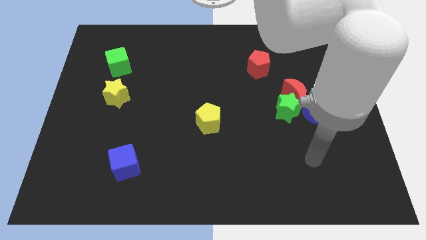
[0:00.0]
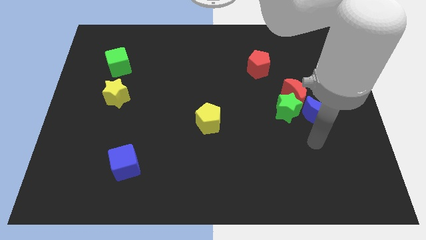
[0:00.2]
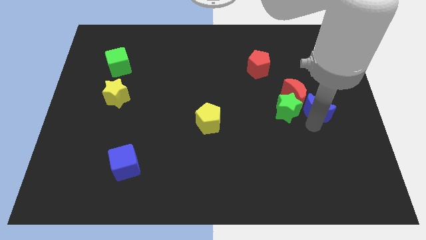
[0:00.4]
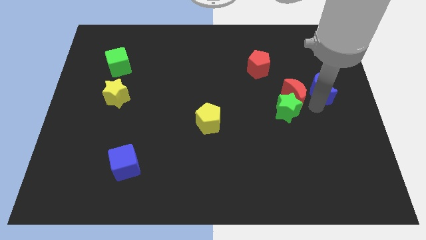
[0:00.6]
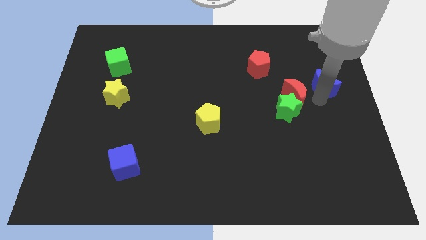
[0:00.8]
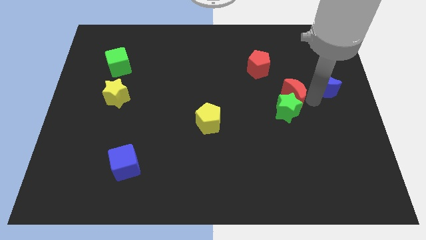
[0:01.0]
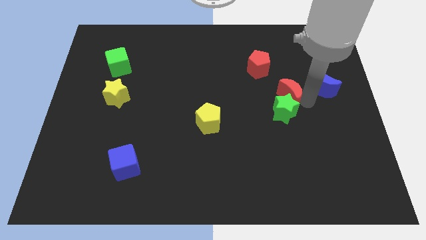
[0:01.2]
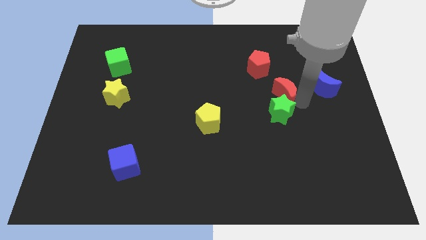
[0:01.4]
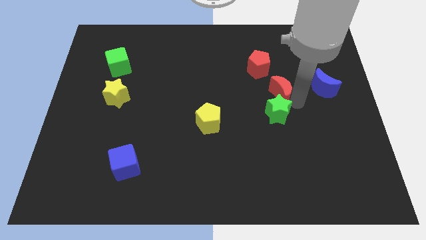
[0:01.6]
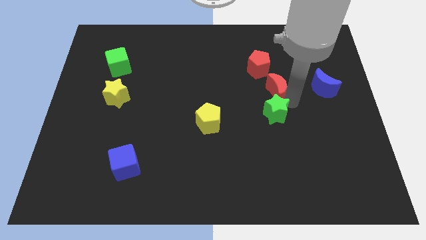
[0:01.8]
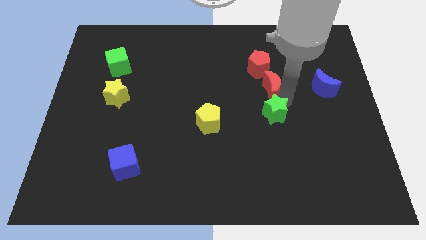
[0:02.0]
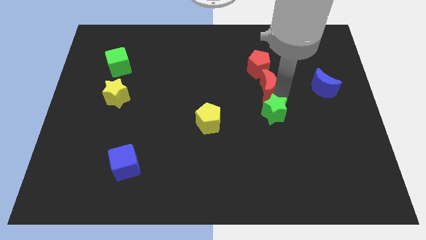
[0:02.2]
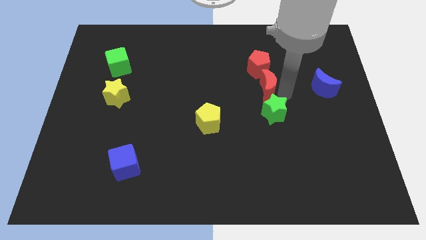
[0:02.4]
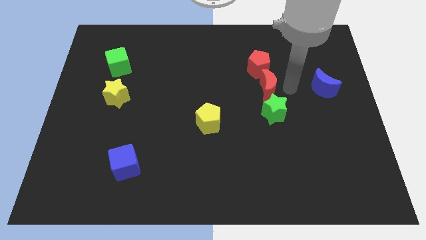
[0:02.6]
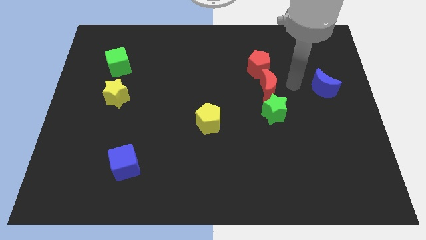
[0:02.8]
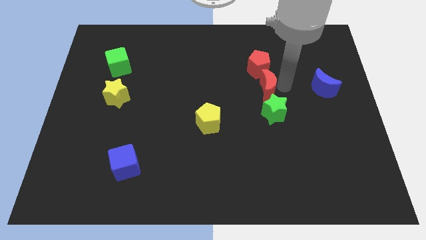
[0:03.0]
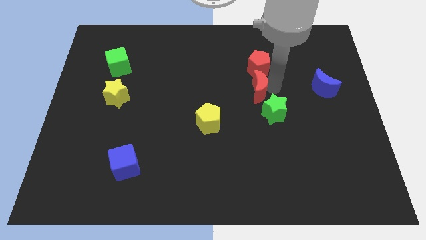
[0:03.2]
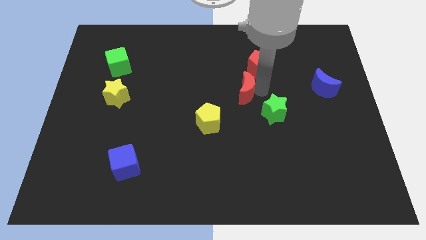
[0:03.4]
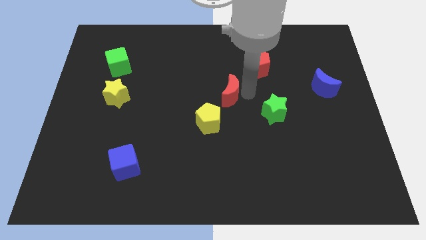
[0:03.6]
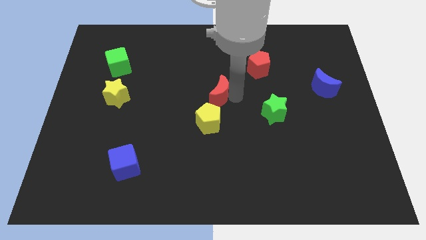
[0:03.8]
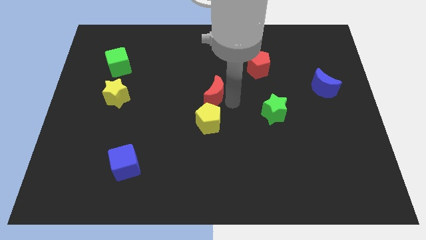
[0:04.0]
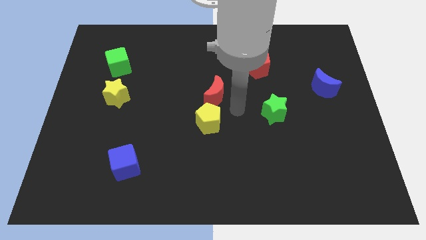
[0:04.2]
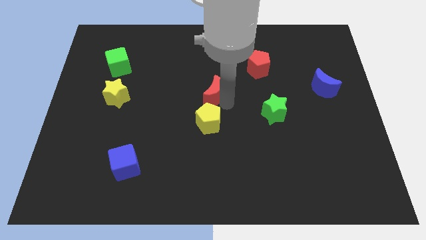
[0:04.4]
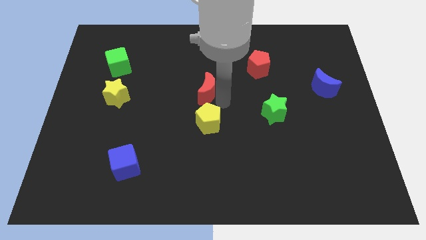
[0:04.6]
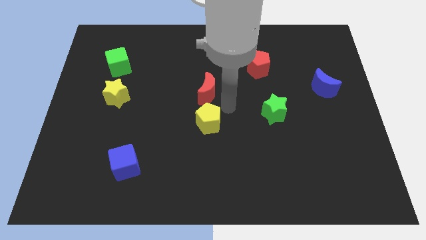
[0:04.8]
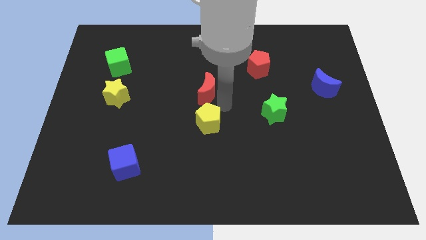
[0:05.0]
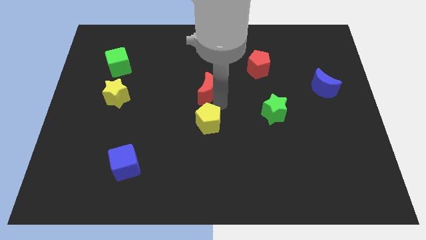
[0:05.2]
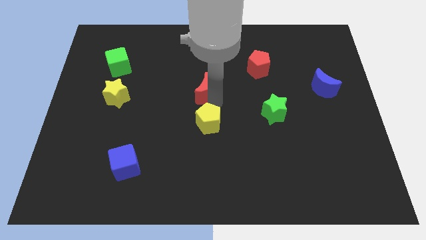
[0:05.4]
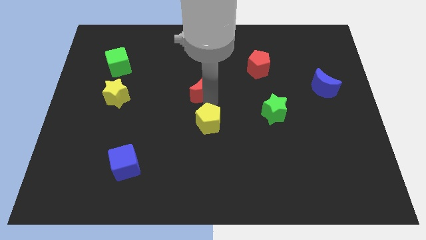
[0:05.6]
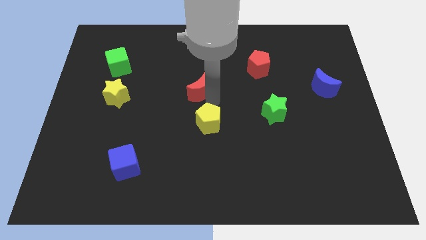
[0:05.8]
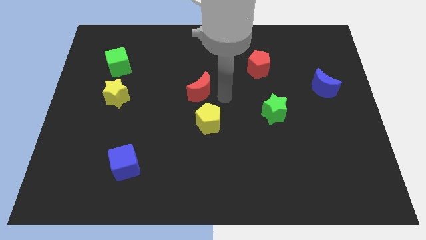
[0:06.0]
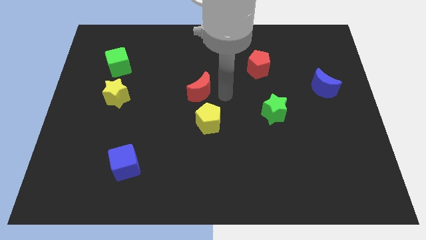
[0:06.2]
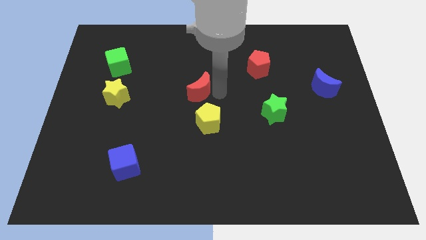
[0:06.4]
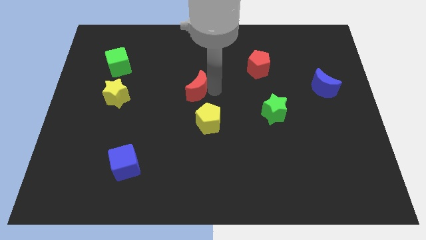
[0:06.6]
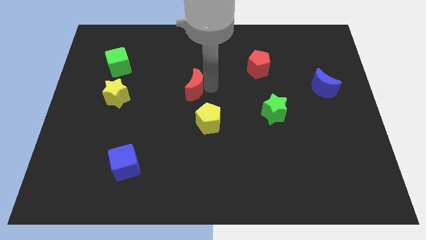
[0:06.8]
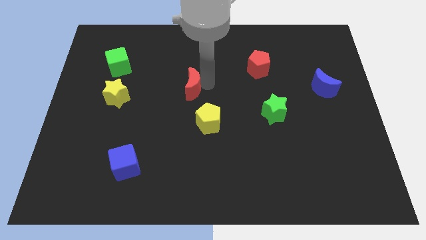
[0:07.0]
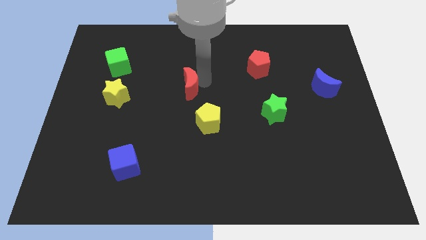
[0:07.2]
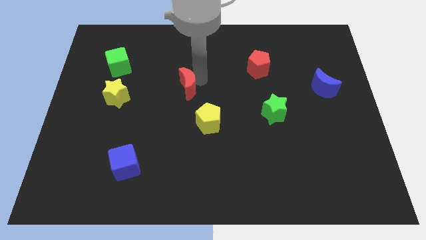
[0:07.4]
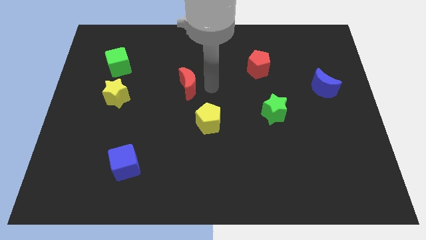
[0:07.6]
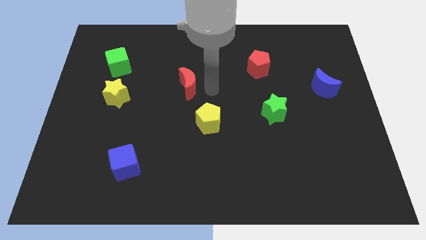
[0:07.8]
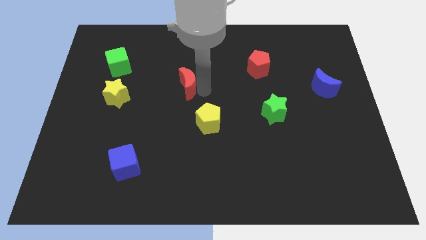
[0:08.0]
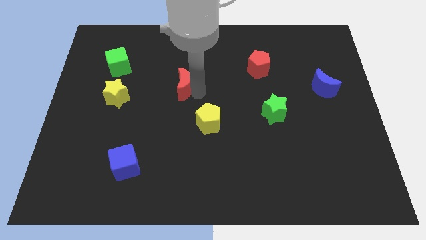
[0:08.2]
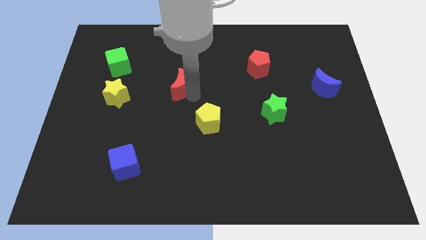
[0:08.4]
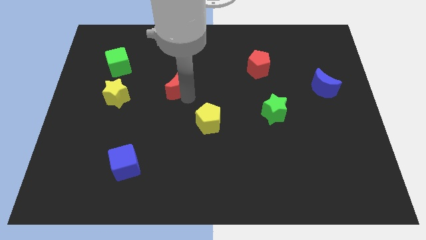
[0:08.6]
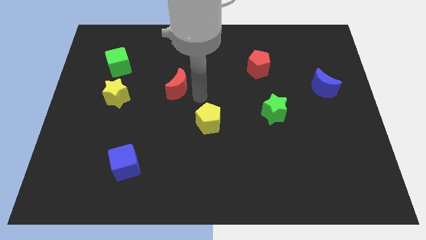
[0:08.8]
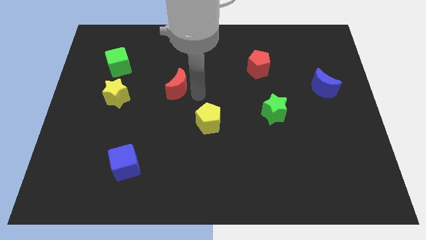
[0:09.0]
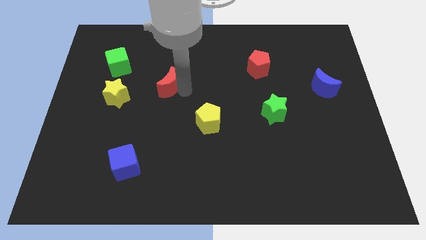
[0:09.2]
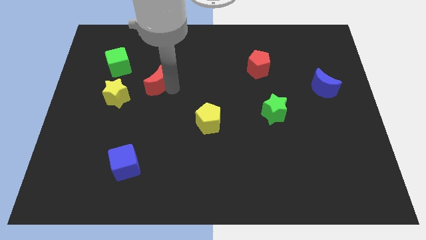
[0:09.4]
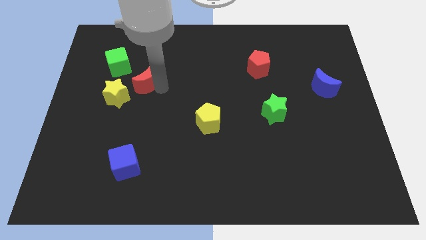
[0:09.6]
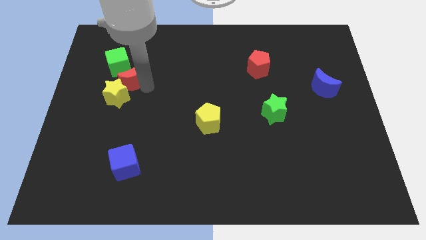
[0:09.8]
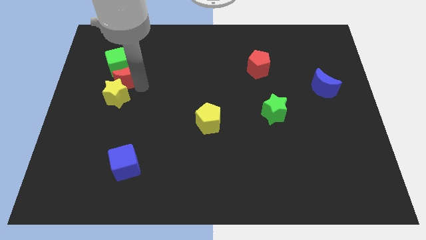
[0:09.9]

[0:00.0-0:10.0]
slide the red moon towards the green cube

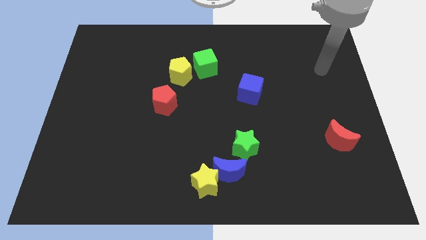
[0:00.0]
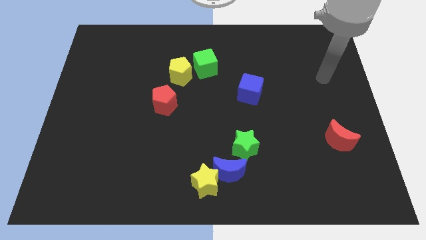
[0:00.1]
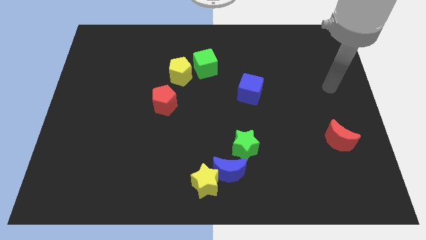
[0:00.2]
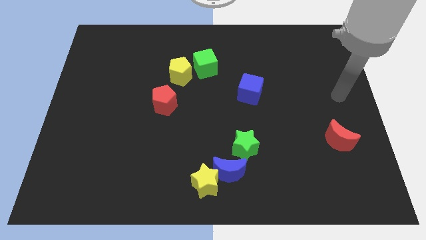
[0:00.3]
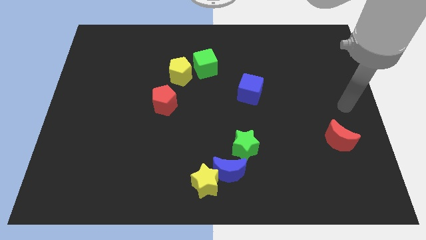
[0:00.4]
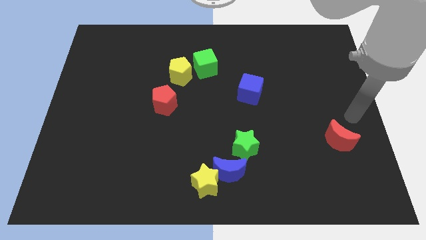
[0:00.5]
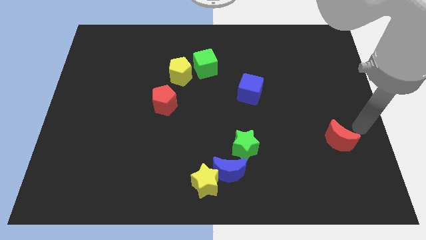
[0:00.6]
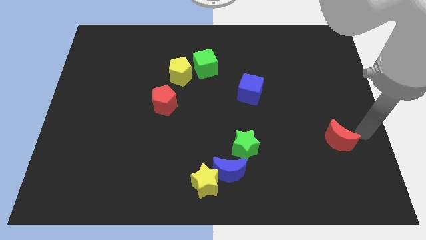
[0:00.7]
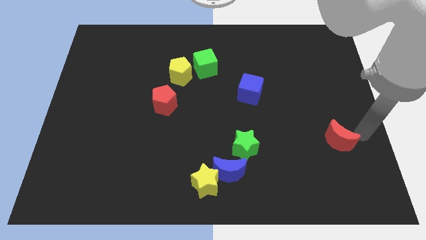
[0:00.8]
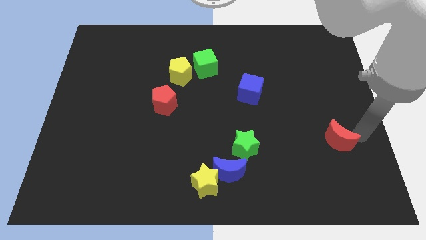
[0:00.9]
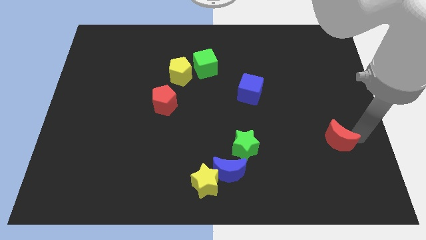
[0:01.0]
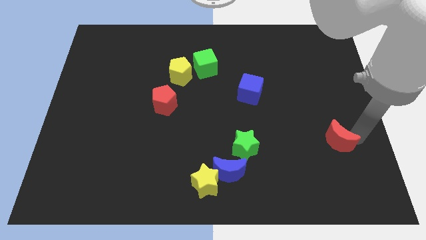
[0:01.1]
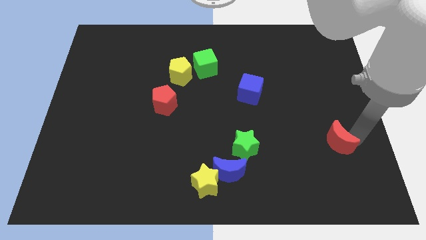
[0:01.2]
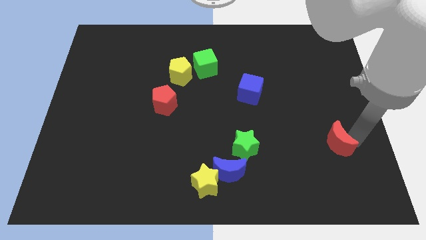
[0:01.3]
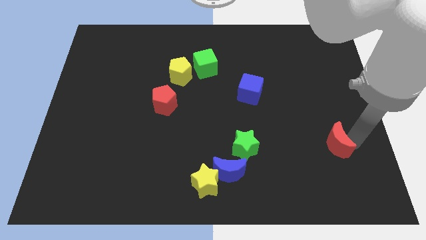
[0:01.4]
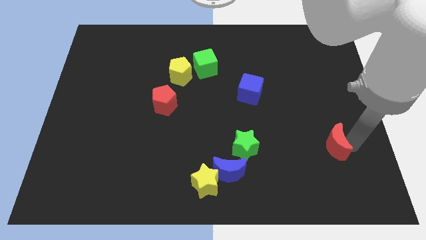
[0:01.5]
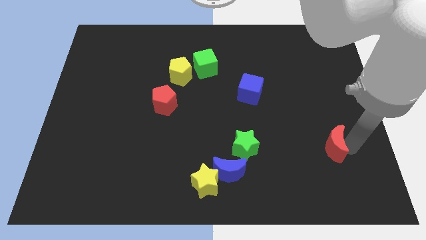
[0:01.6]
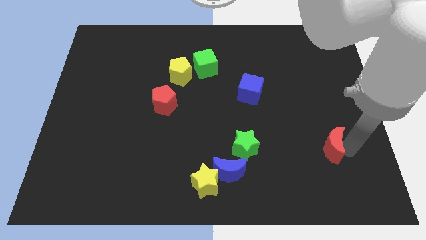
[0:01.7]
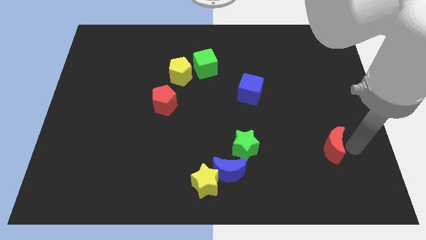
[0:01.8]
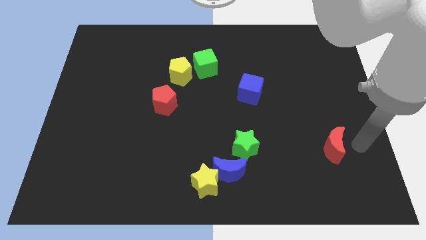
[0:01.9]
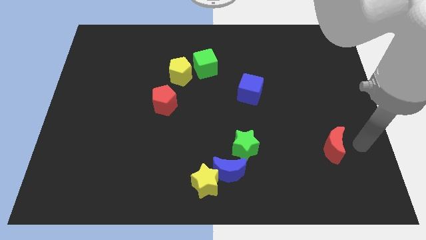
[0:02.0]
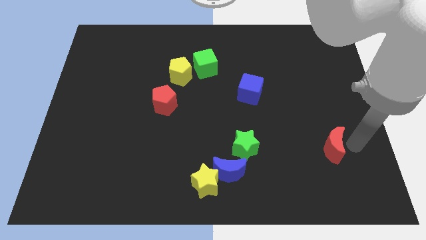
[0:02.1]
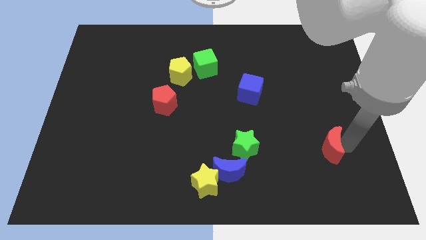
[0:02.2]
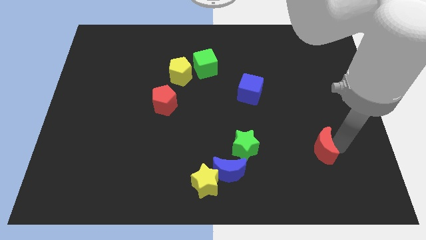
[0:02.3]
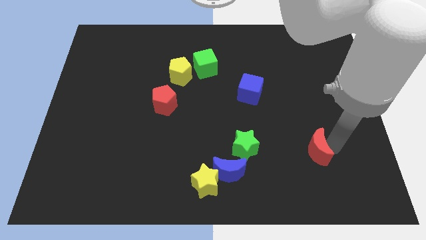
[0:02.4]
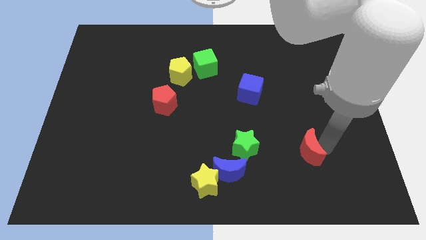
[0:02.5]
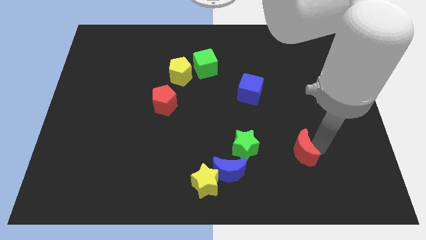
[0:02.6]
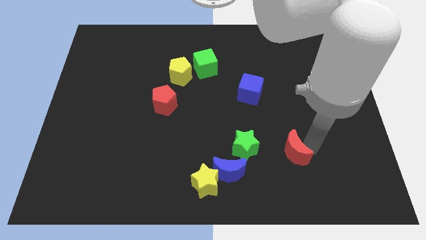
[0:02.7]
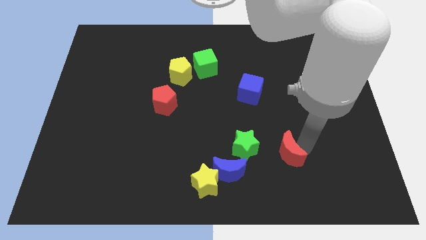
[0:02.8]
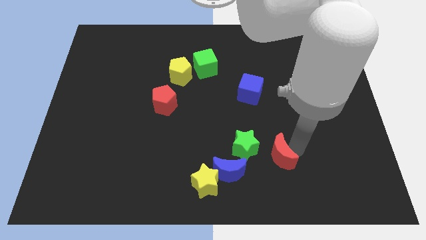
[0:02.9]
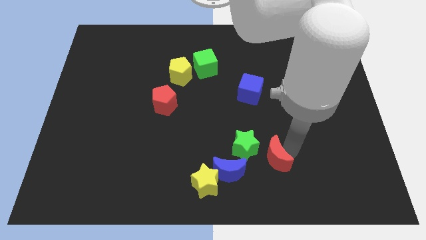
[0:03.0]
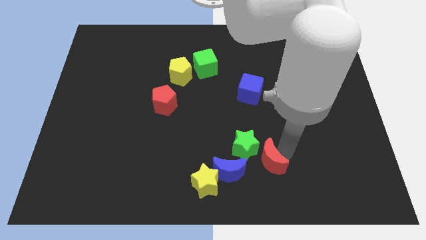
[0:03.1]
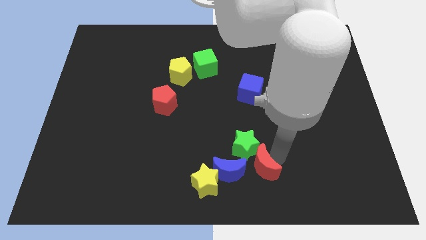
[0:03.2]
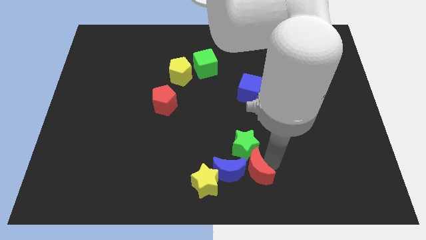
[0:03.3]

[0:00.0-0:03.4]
move the red moon next to the blue moon
